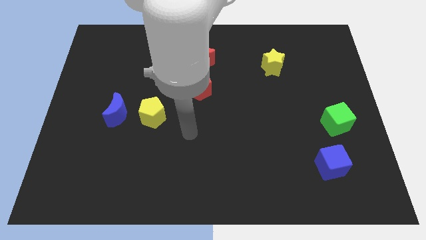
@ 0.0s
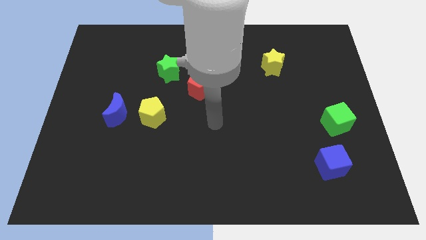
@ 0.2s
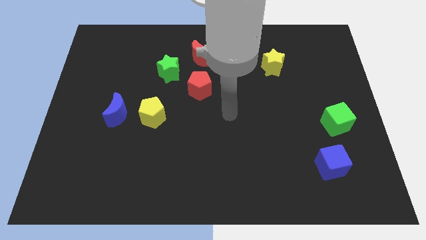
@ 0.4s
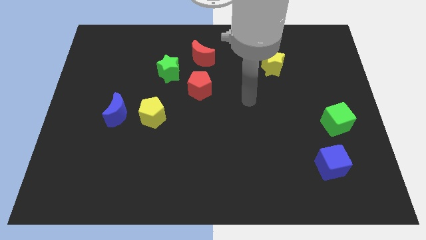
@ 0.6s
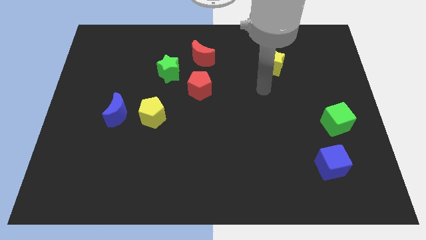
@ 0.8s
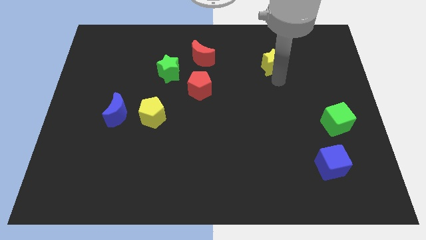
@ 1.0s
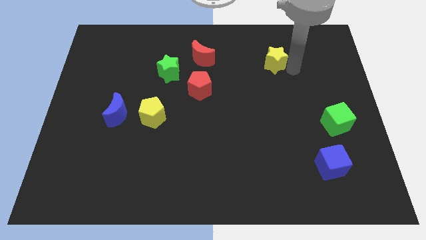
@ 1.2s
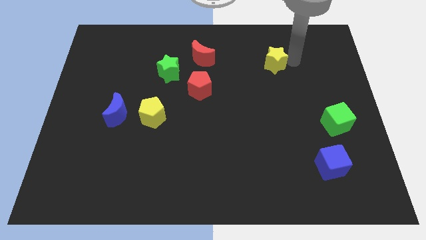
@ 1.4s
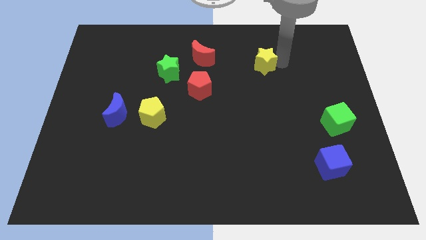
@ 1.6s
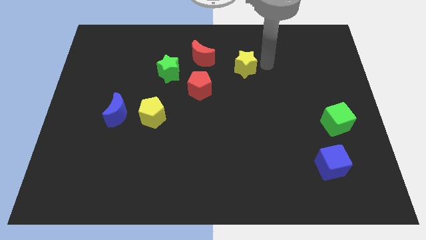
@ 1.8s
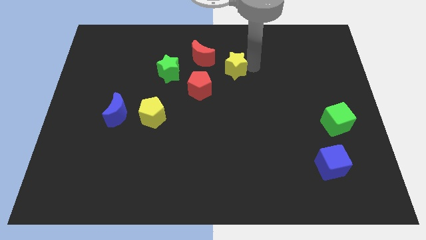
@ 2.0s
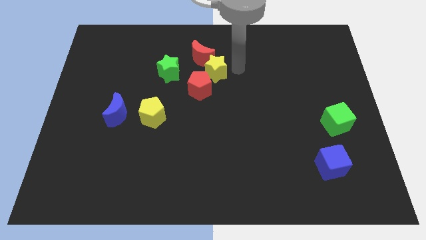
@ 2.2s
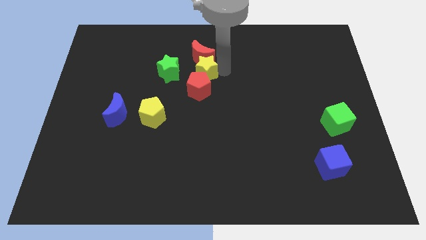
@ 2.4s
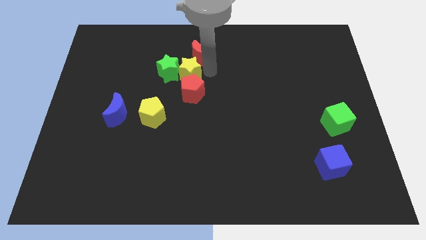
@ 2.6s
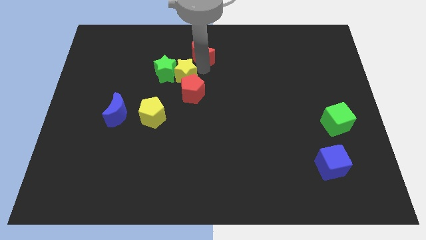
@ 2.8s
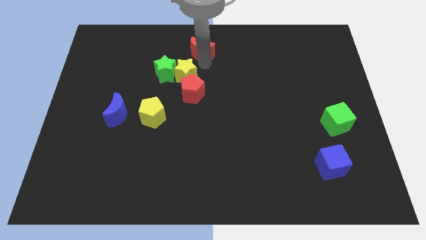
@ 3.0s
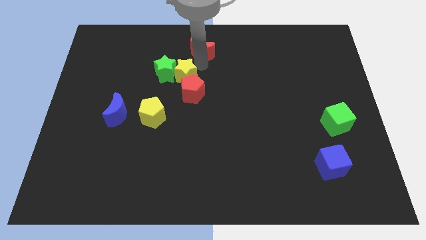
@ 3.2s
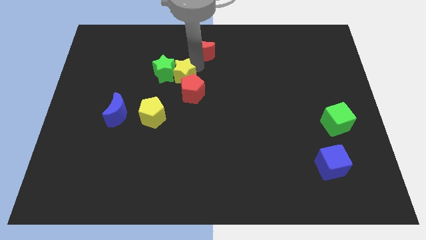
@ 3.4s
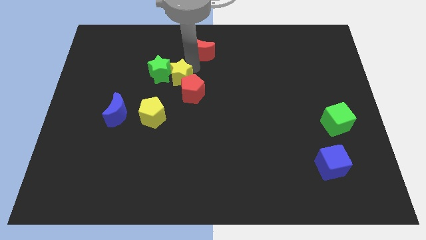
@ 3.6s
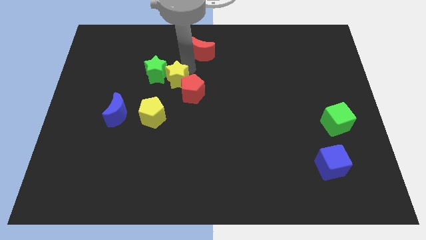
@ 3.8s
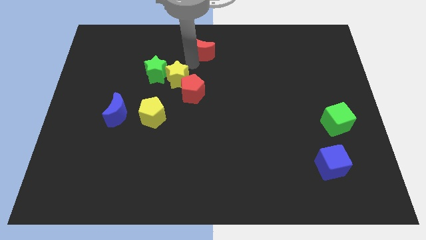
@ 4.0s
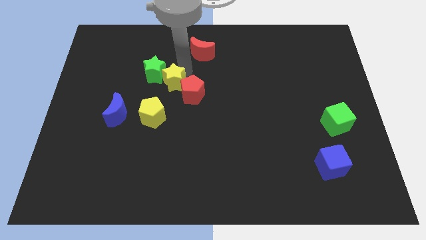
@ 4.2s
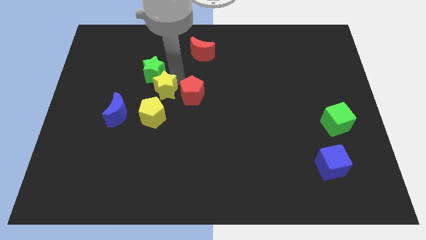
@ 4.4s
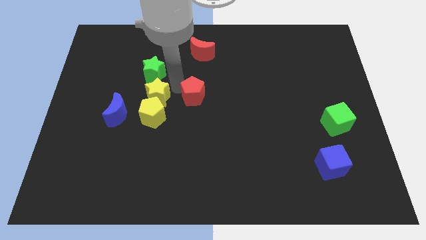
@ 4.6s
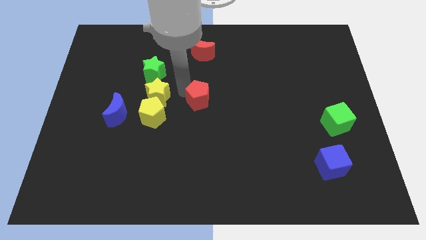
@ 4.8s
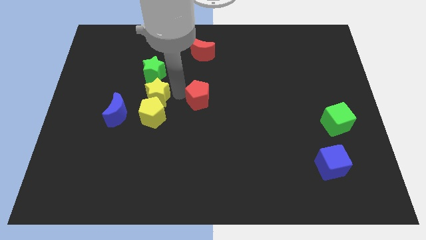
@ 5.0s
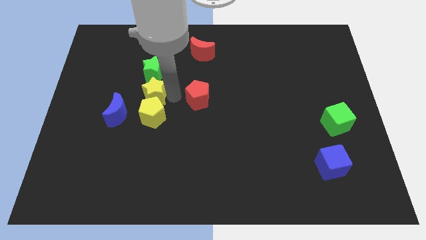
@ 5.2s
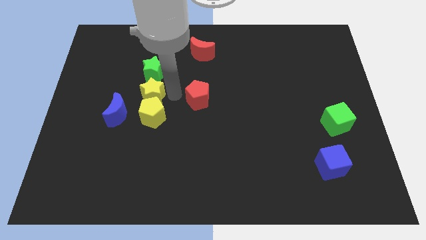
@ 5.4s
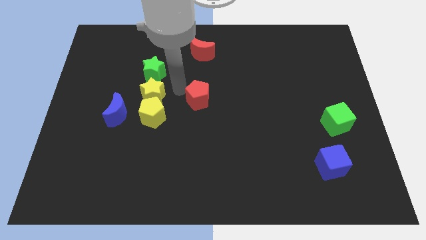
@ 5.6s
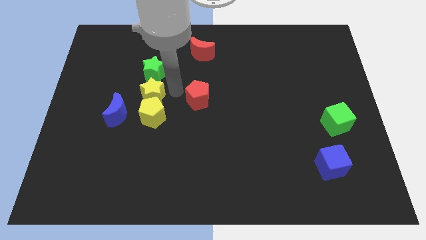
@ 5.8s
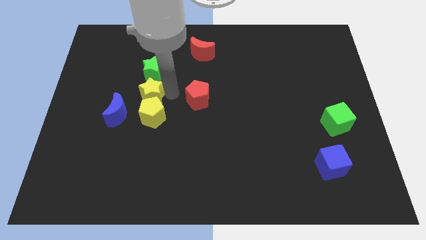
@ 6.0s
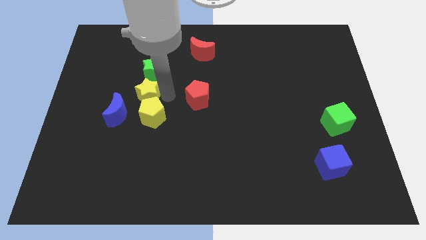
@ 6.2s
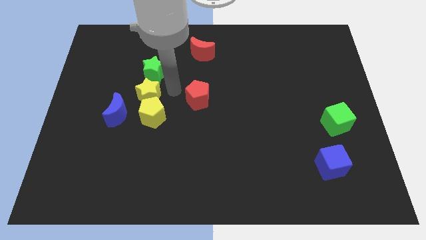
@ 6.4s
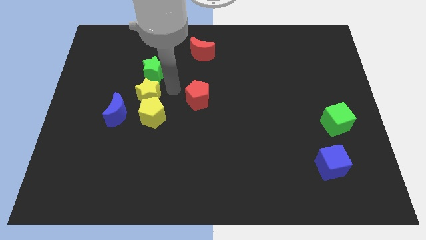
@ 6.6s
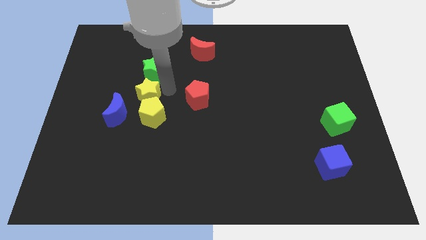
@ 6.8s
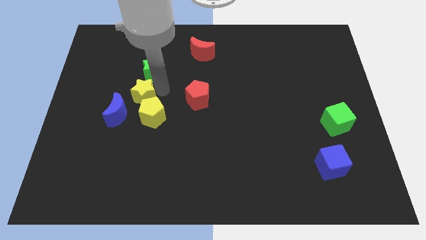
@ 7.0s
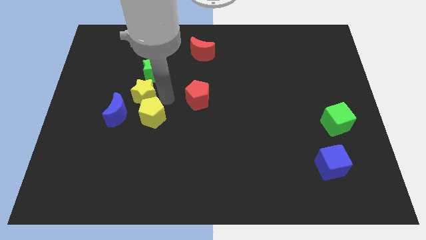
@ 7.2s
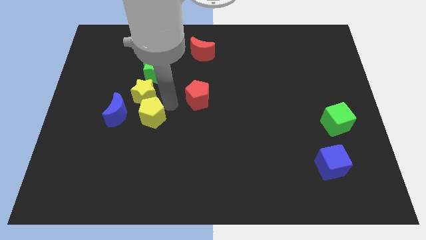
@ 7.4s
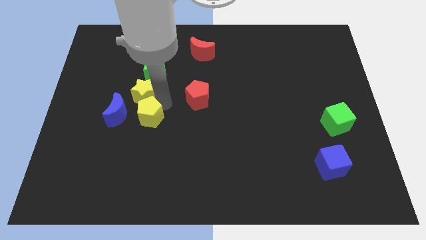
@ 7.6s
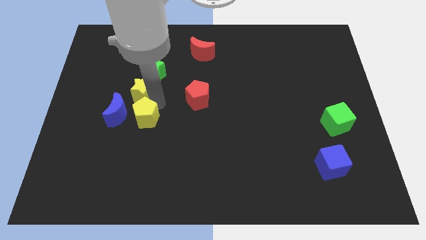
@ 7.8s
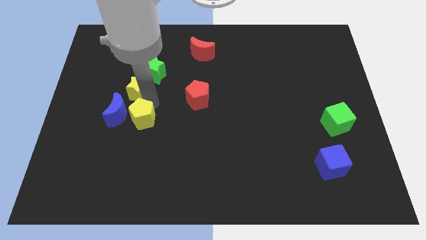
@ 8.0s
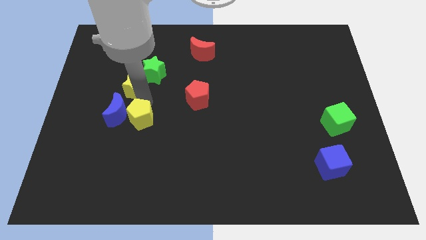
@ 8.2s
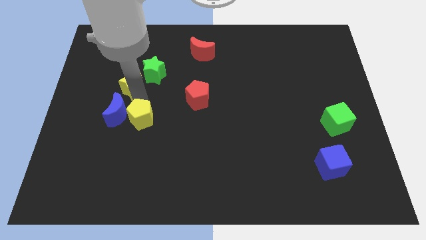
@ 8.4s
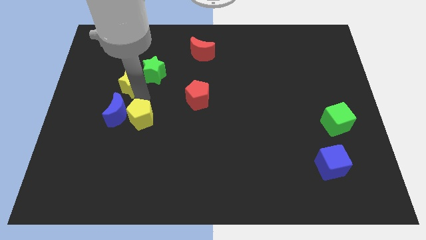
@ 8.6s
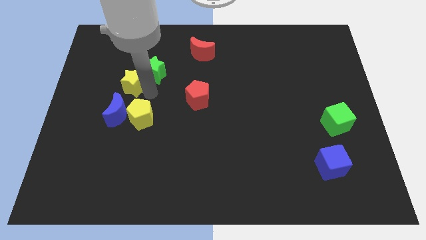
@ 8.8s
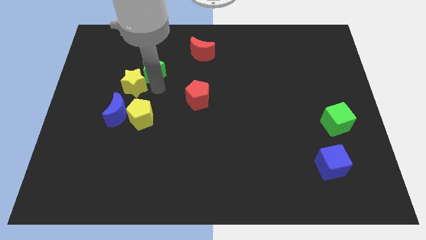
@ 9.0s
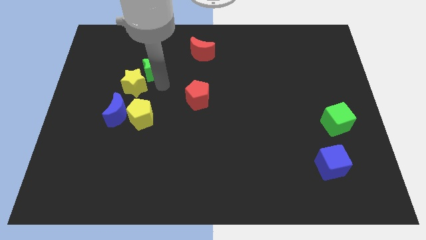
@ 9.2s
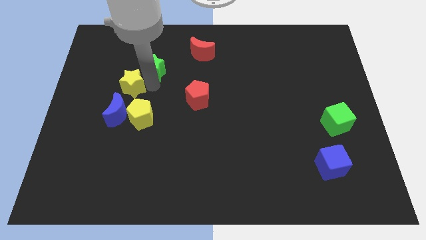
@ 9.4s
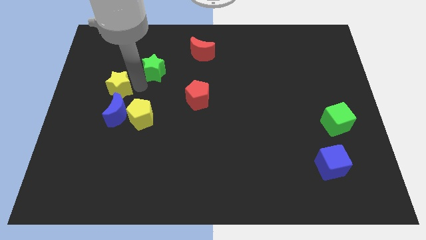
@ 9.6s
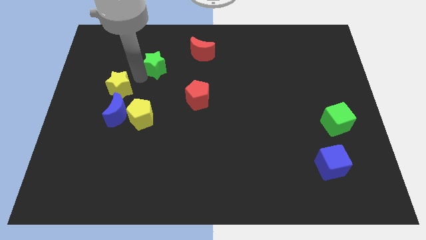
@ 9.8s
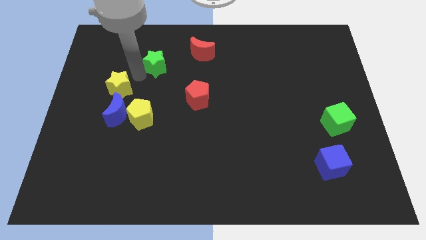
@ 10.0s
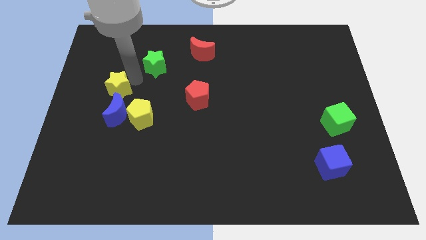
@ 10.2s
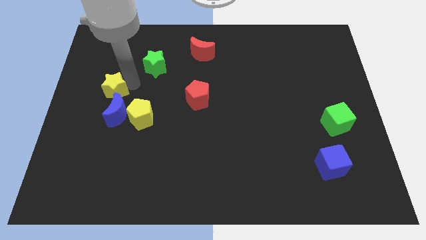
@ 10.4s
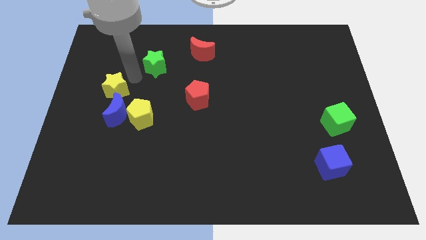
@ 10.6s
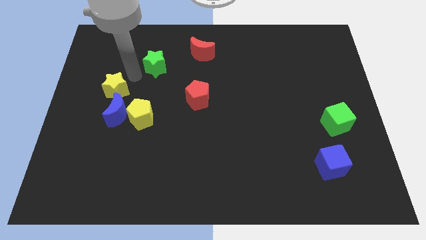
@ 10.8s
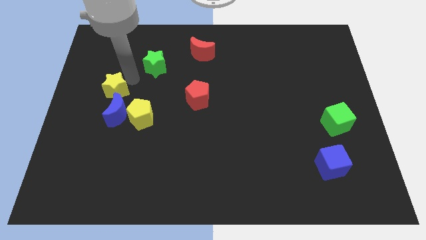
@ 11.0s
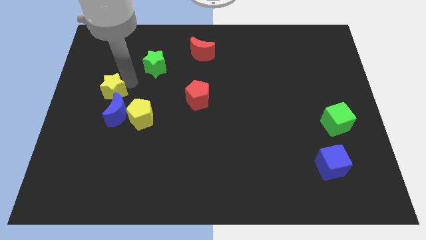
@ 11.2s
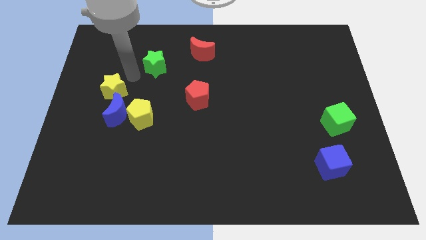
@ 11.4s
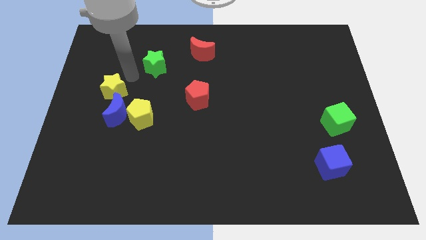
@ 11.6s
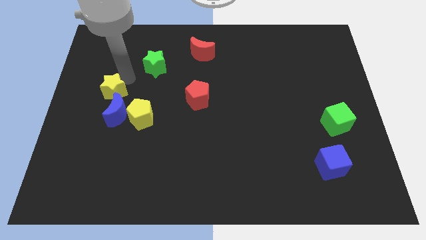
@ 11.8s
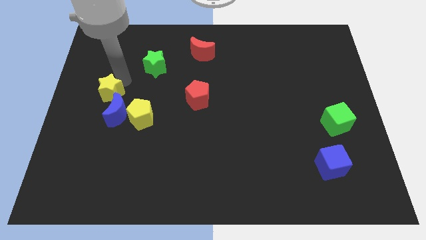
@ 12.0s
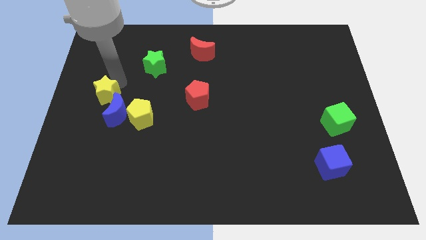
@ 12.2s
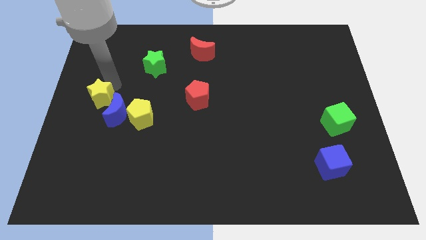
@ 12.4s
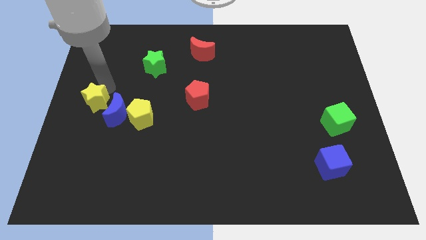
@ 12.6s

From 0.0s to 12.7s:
push the yellow star left of the yellow pentagon

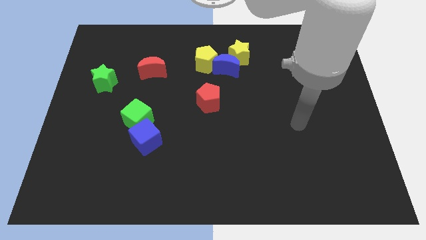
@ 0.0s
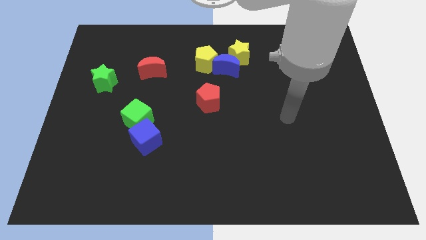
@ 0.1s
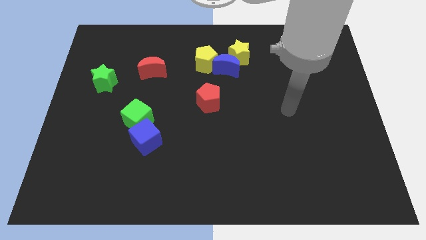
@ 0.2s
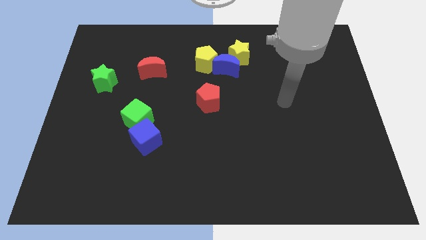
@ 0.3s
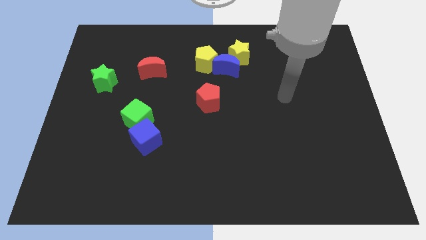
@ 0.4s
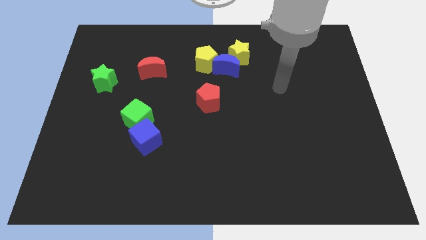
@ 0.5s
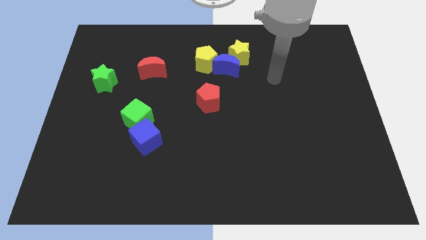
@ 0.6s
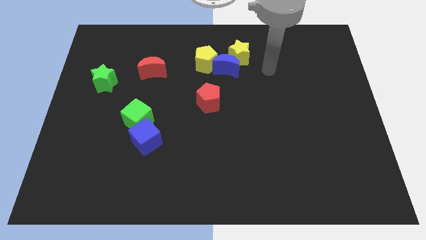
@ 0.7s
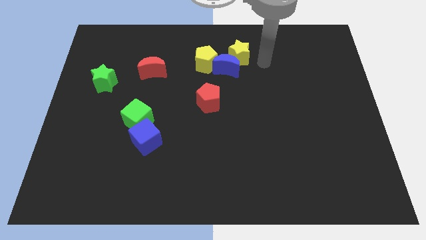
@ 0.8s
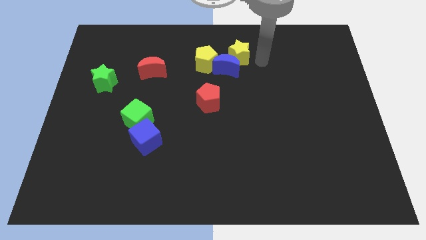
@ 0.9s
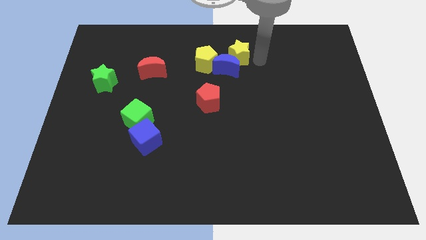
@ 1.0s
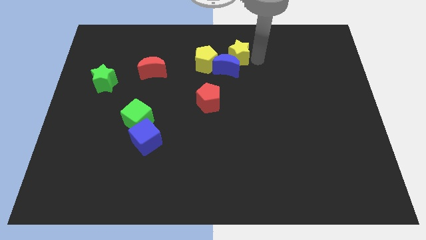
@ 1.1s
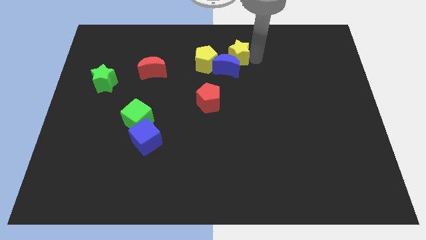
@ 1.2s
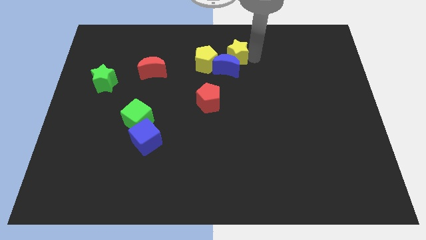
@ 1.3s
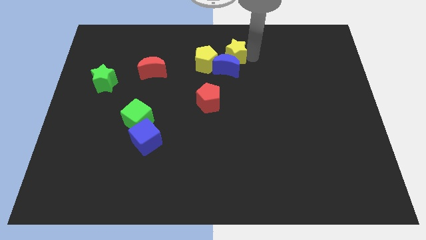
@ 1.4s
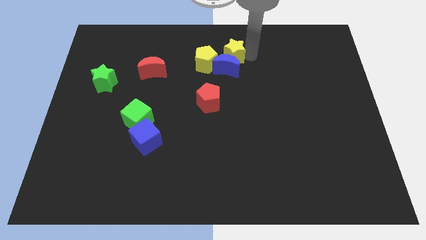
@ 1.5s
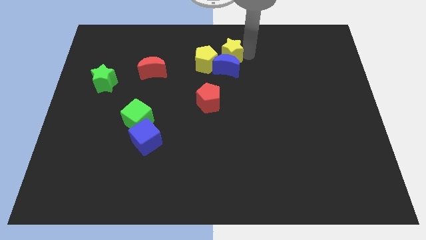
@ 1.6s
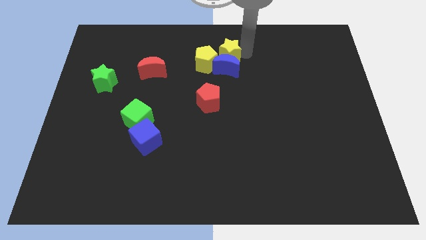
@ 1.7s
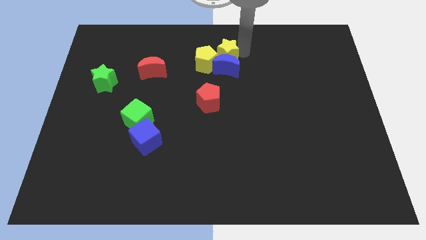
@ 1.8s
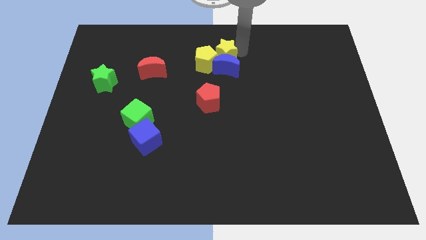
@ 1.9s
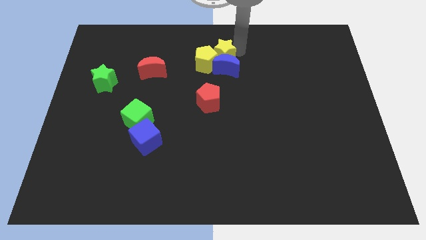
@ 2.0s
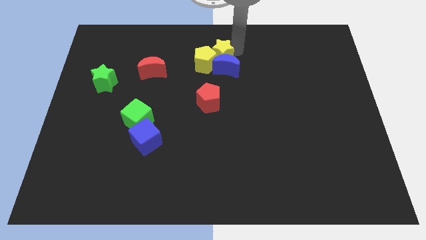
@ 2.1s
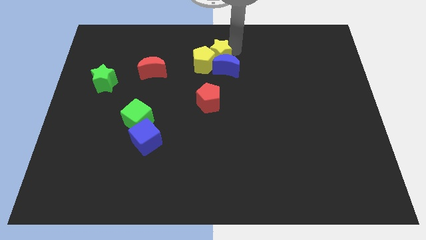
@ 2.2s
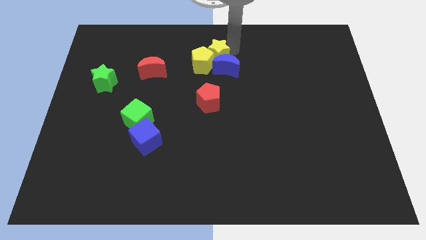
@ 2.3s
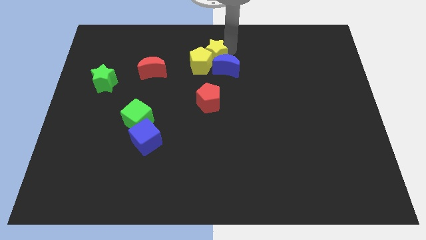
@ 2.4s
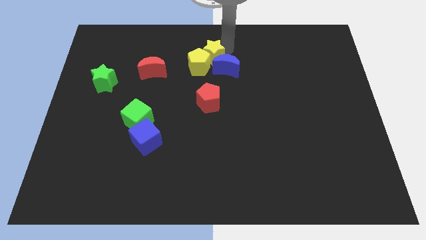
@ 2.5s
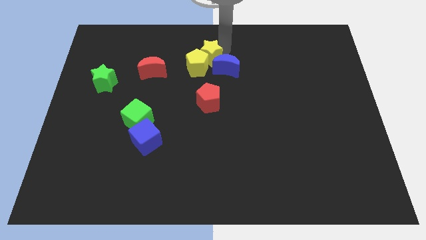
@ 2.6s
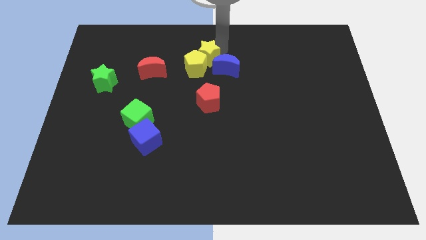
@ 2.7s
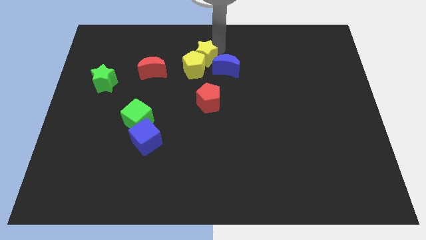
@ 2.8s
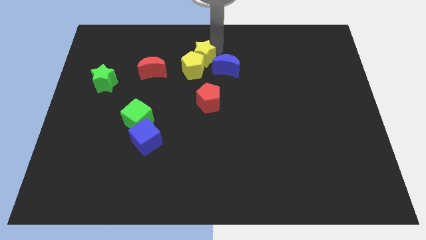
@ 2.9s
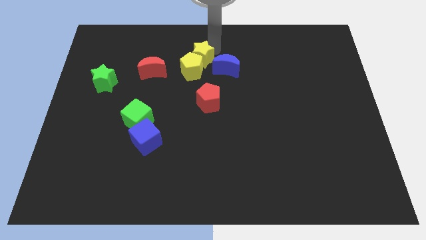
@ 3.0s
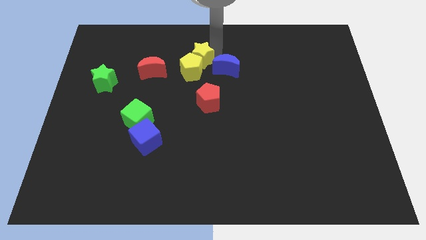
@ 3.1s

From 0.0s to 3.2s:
push the yellow star right of the red moon
